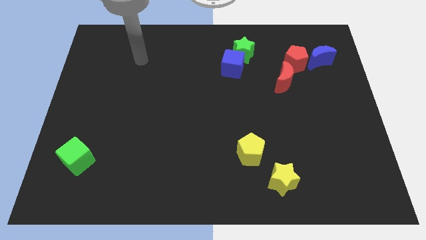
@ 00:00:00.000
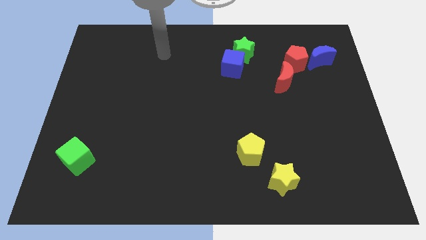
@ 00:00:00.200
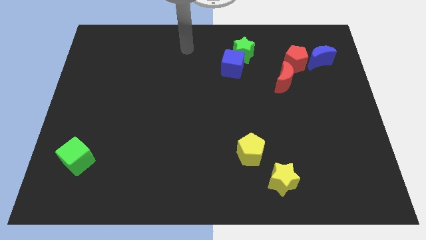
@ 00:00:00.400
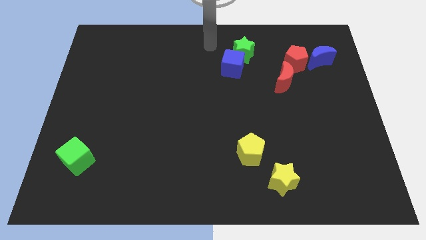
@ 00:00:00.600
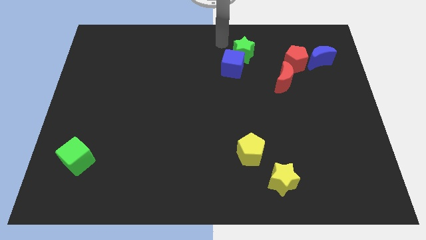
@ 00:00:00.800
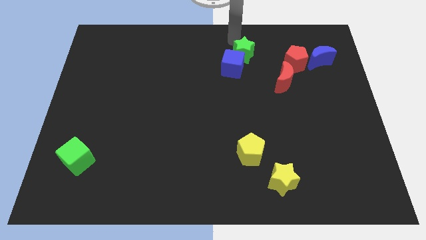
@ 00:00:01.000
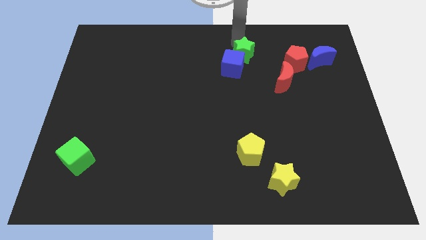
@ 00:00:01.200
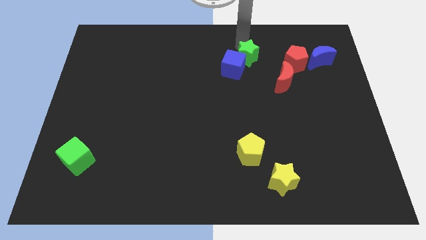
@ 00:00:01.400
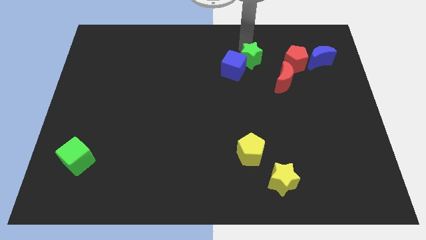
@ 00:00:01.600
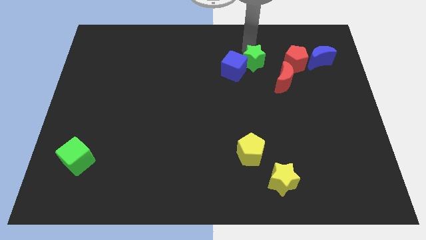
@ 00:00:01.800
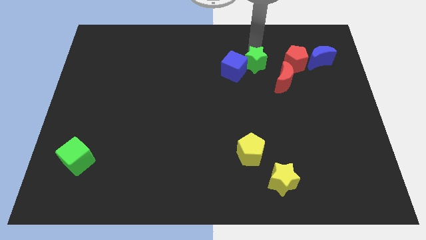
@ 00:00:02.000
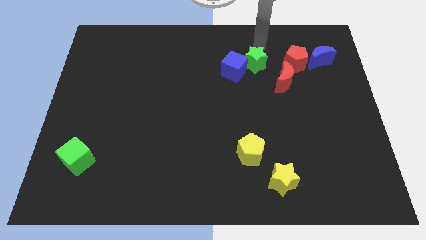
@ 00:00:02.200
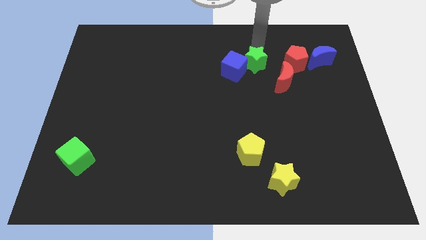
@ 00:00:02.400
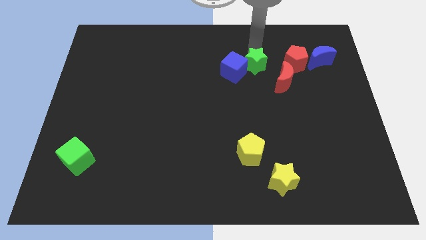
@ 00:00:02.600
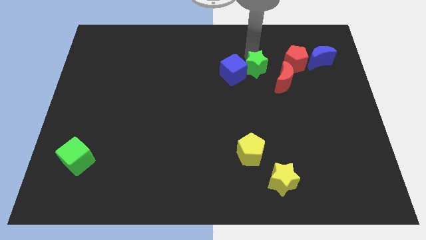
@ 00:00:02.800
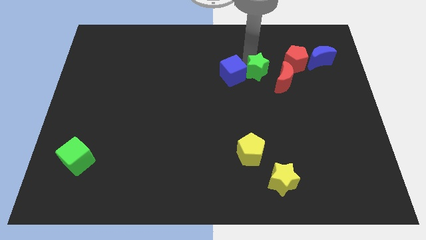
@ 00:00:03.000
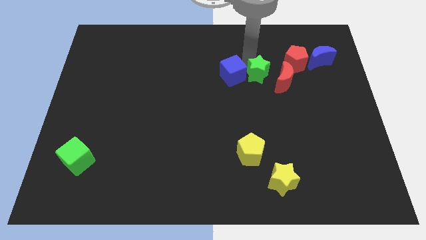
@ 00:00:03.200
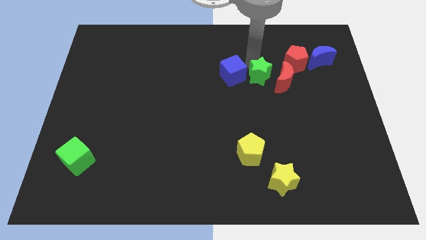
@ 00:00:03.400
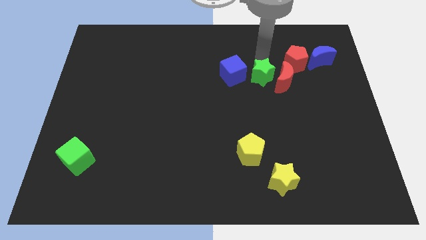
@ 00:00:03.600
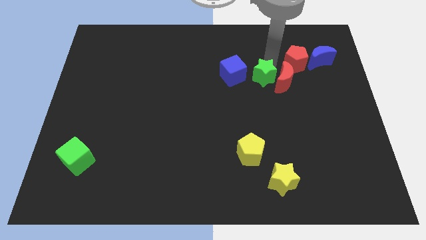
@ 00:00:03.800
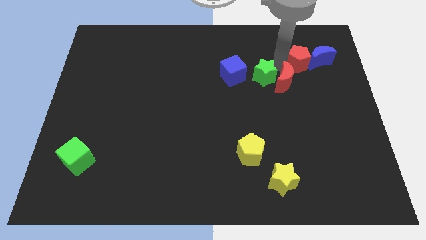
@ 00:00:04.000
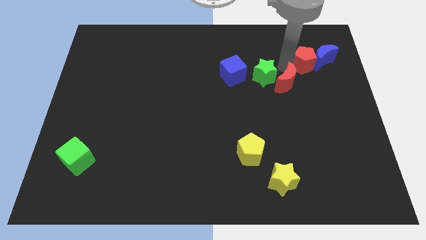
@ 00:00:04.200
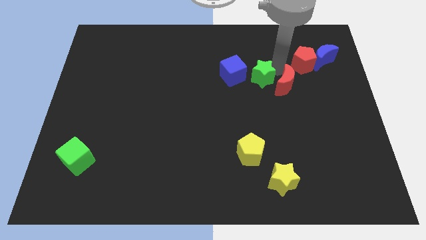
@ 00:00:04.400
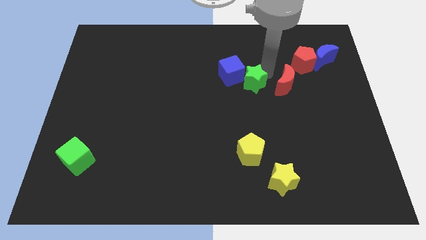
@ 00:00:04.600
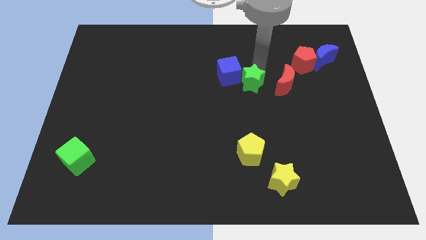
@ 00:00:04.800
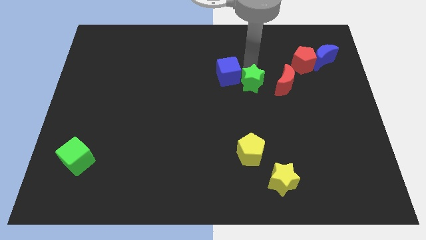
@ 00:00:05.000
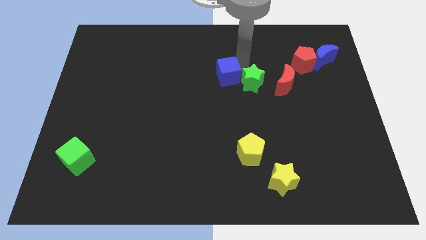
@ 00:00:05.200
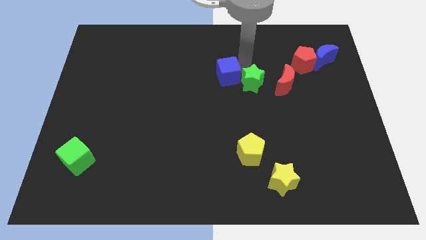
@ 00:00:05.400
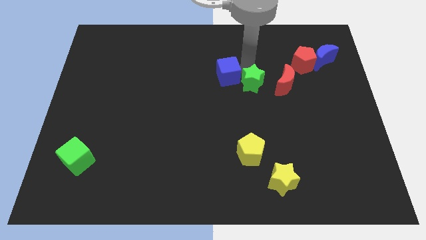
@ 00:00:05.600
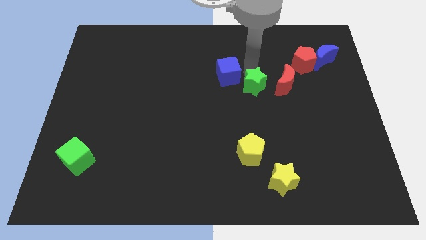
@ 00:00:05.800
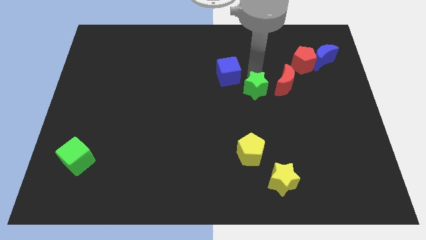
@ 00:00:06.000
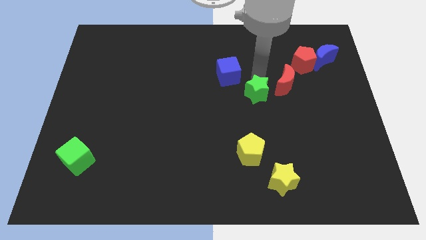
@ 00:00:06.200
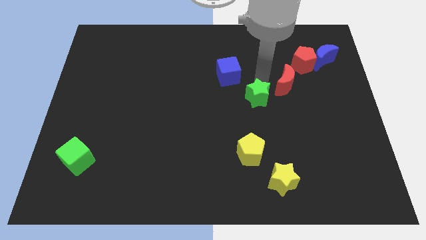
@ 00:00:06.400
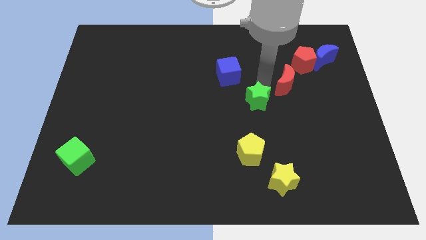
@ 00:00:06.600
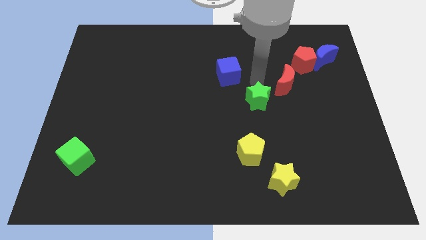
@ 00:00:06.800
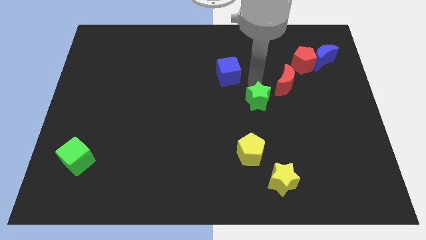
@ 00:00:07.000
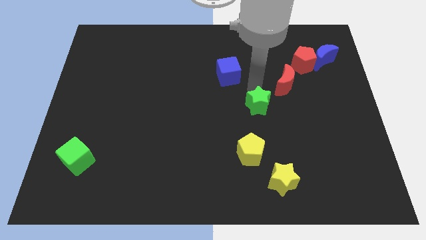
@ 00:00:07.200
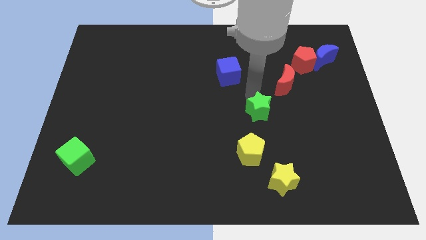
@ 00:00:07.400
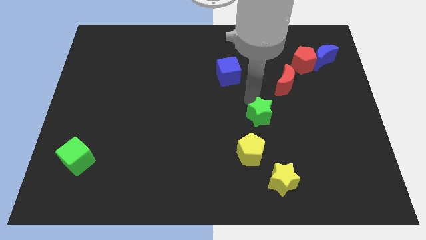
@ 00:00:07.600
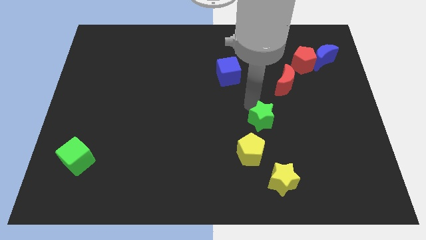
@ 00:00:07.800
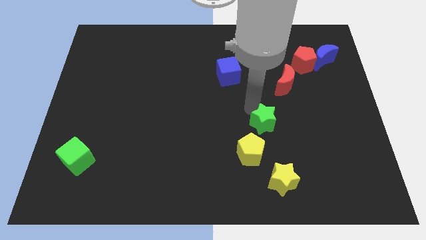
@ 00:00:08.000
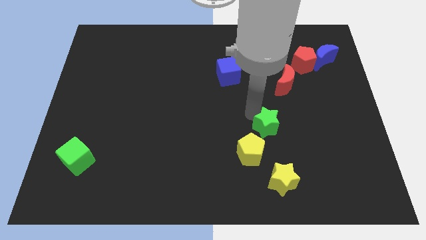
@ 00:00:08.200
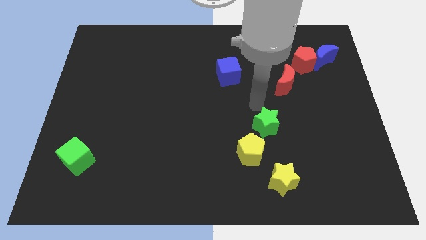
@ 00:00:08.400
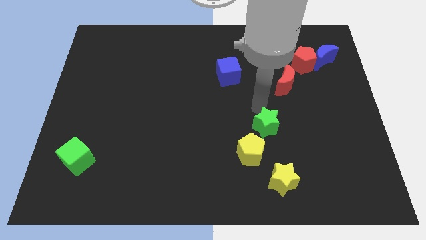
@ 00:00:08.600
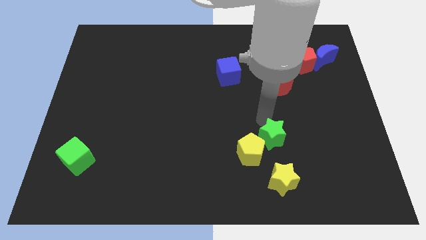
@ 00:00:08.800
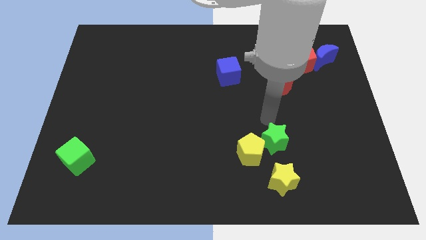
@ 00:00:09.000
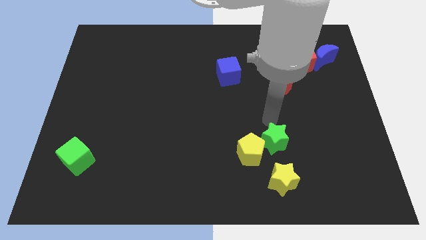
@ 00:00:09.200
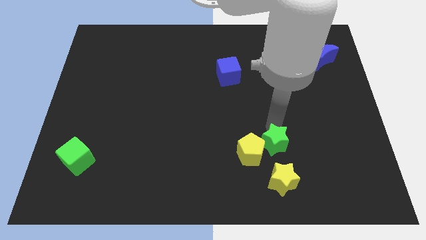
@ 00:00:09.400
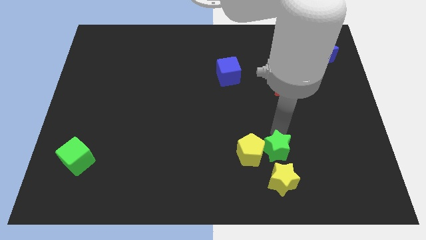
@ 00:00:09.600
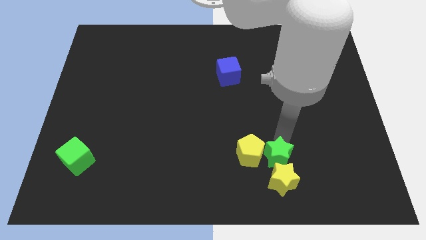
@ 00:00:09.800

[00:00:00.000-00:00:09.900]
put the green star towards the yellow star

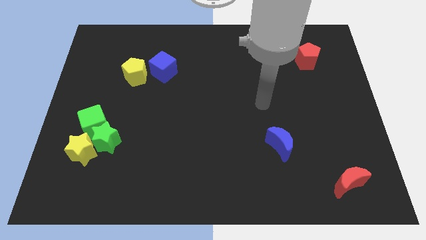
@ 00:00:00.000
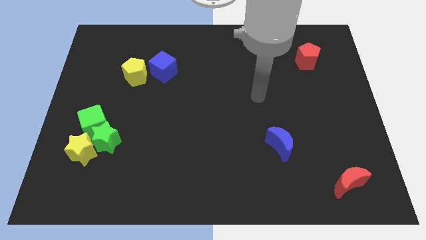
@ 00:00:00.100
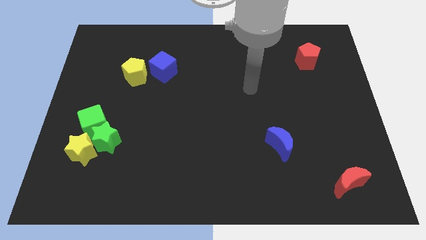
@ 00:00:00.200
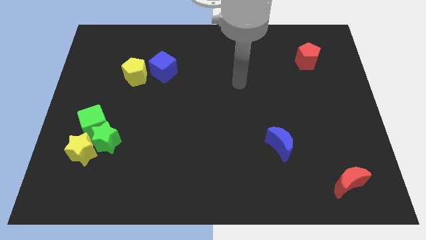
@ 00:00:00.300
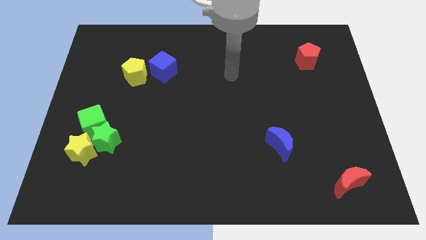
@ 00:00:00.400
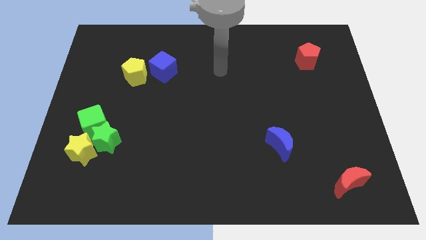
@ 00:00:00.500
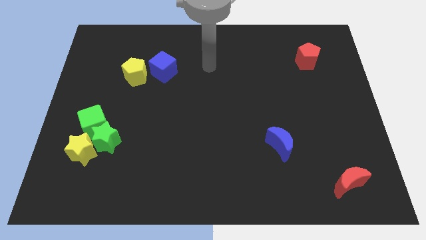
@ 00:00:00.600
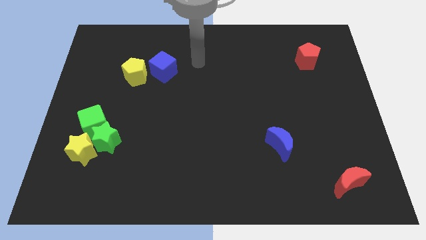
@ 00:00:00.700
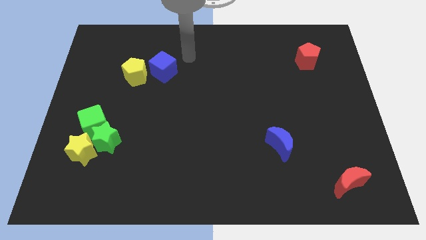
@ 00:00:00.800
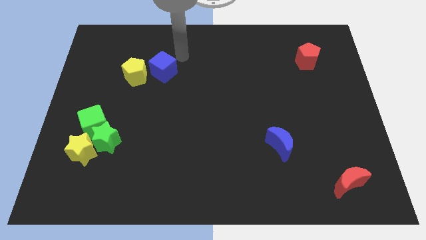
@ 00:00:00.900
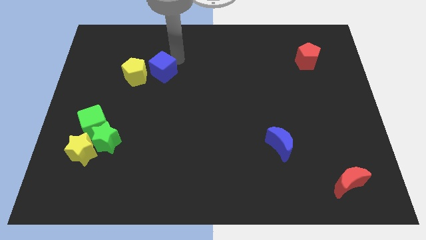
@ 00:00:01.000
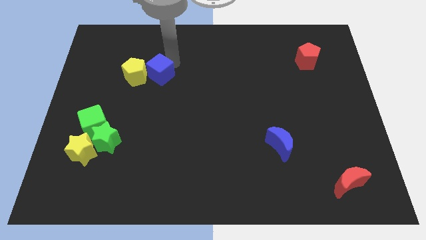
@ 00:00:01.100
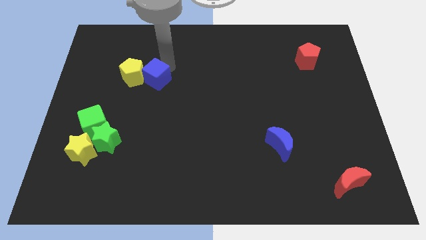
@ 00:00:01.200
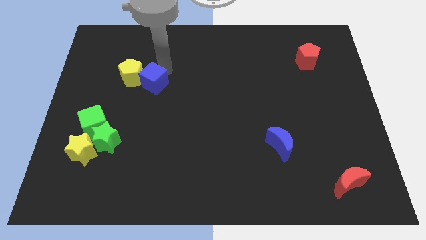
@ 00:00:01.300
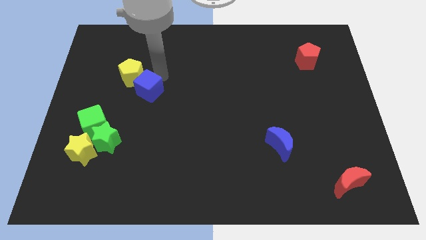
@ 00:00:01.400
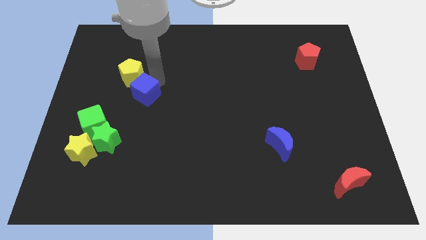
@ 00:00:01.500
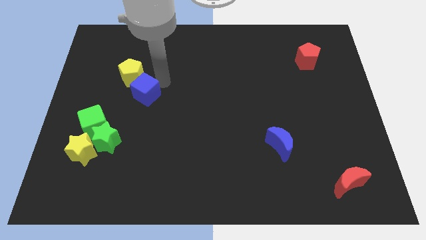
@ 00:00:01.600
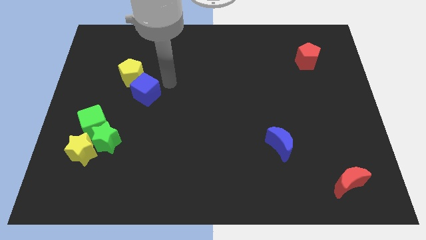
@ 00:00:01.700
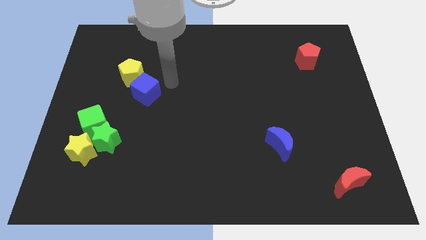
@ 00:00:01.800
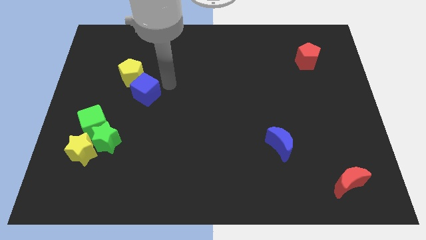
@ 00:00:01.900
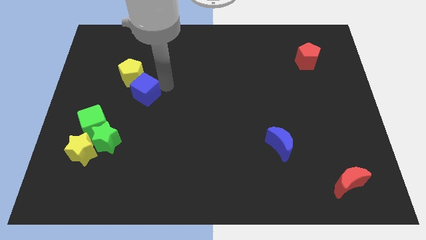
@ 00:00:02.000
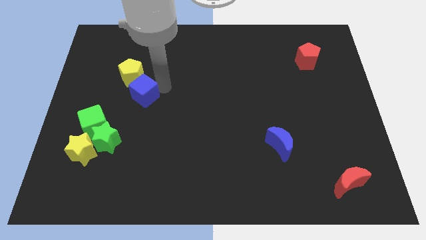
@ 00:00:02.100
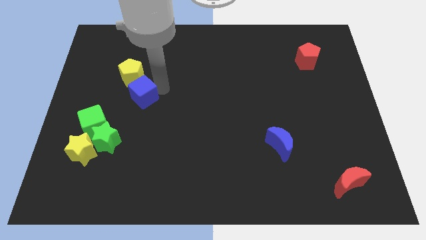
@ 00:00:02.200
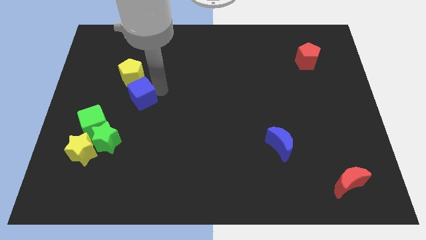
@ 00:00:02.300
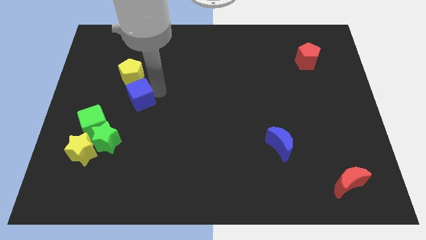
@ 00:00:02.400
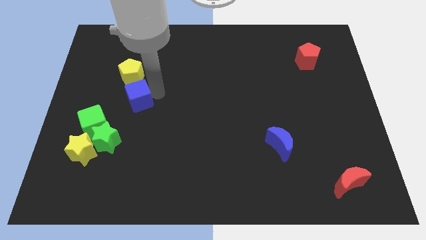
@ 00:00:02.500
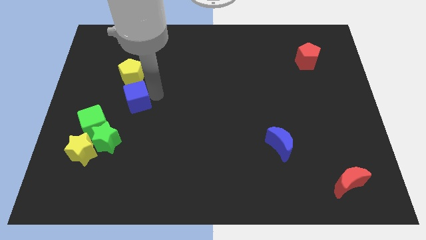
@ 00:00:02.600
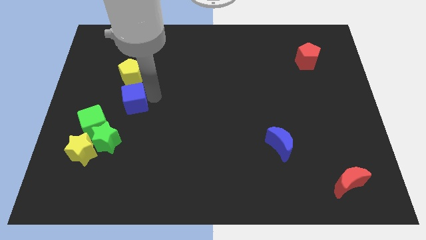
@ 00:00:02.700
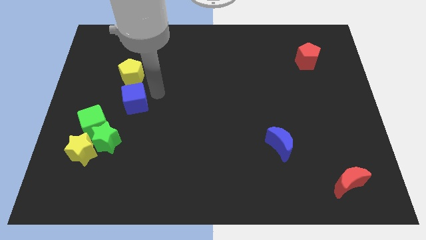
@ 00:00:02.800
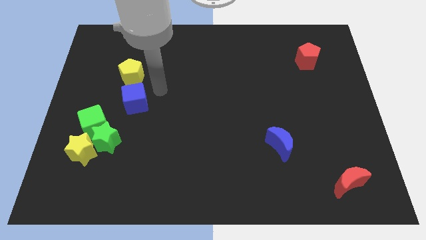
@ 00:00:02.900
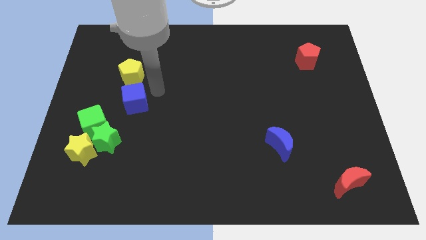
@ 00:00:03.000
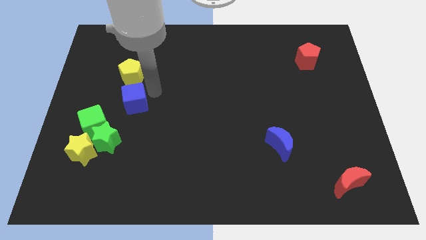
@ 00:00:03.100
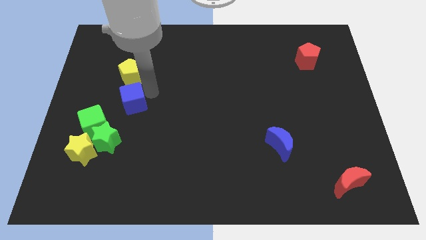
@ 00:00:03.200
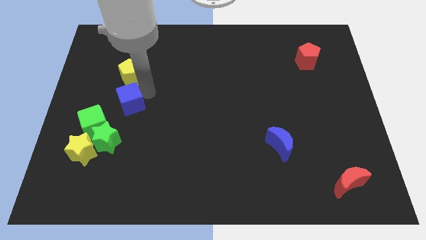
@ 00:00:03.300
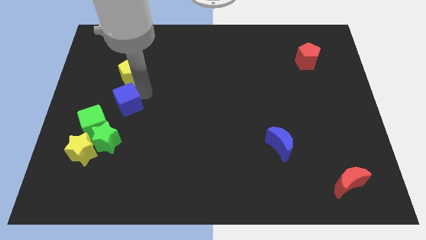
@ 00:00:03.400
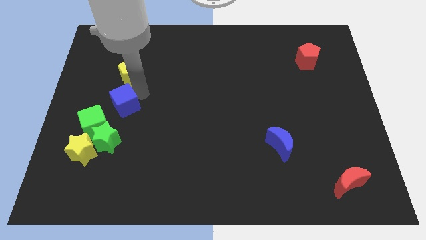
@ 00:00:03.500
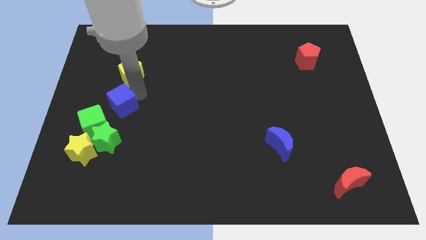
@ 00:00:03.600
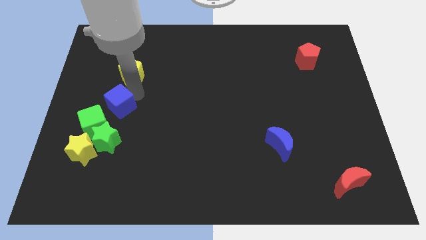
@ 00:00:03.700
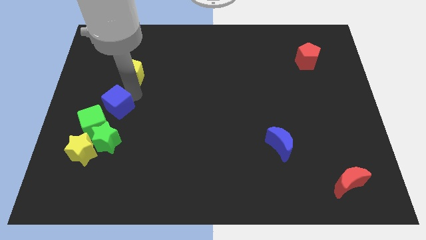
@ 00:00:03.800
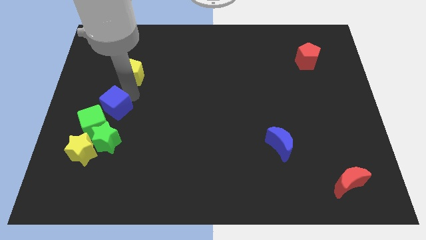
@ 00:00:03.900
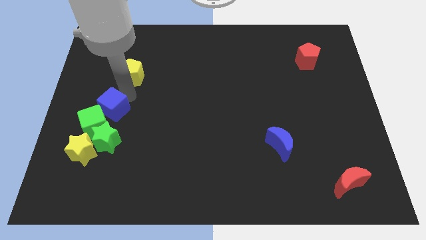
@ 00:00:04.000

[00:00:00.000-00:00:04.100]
push the blue cube close to the green cube
